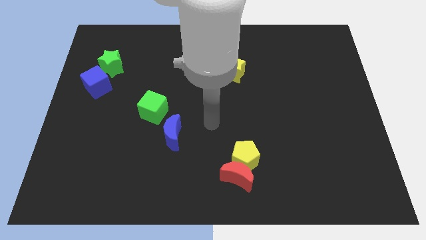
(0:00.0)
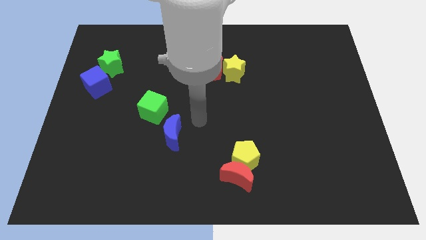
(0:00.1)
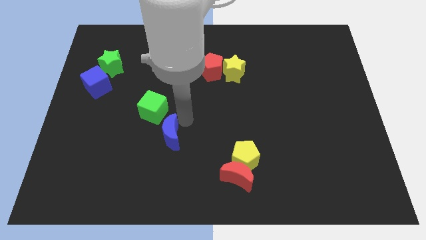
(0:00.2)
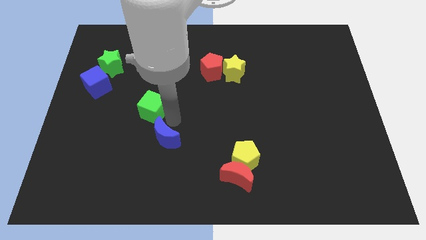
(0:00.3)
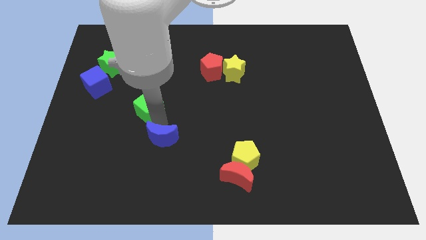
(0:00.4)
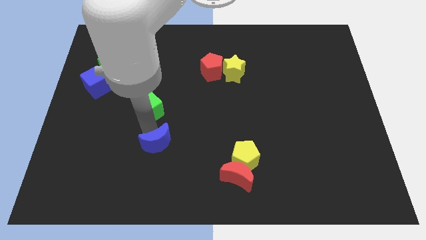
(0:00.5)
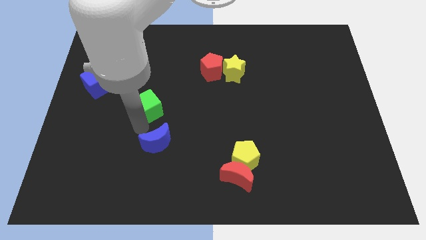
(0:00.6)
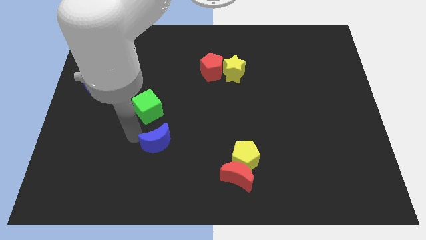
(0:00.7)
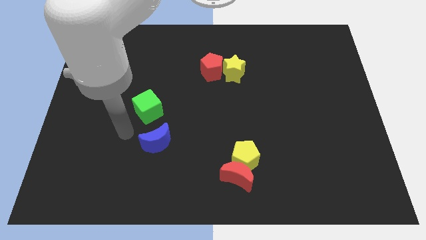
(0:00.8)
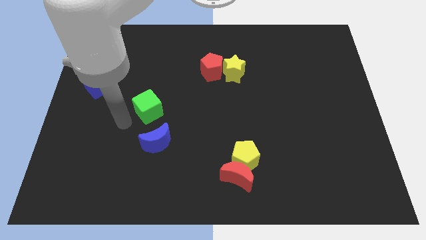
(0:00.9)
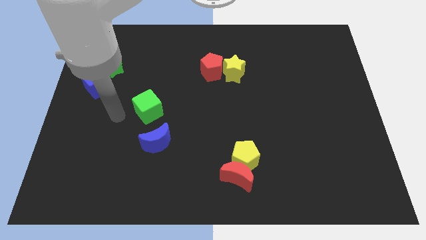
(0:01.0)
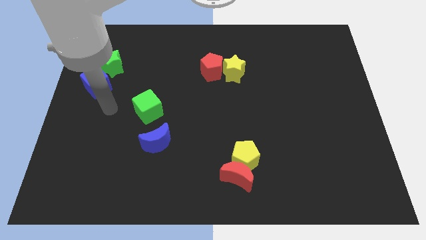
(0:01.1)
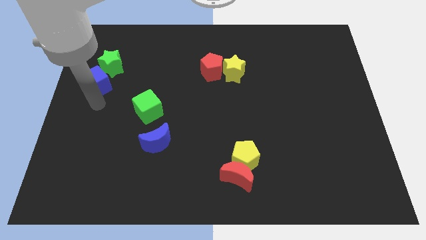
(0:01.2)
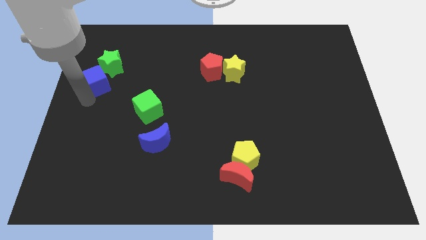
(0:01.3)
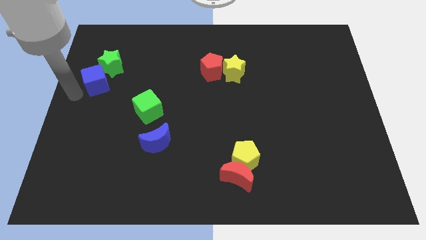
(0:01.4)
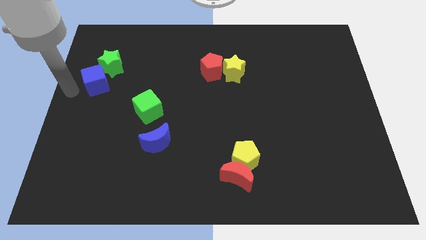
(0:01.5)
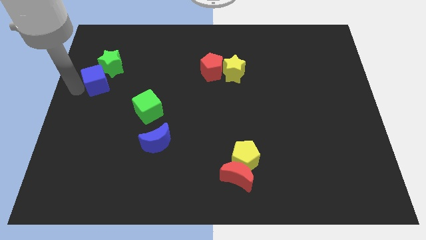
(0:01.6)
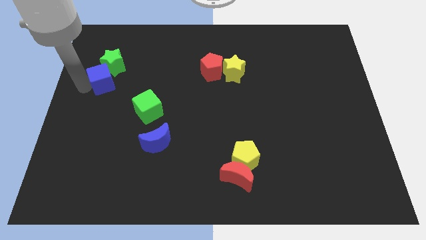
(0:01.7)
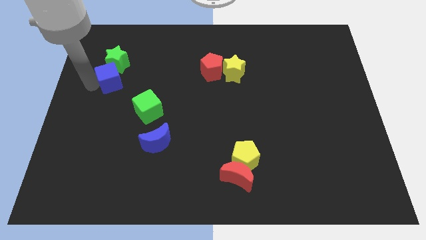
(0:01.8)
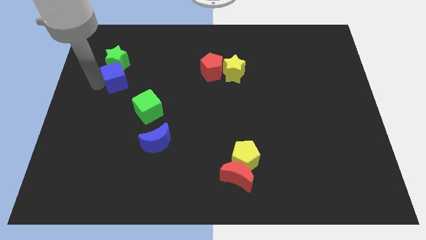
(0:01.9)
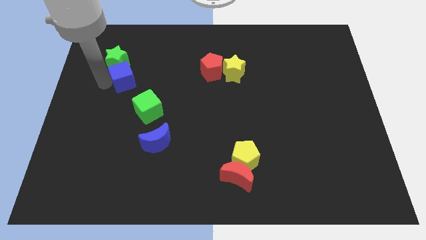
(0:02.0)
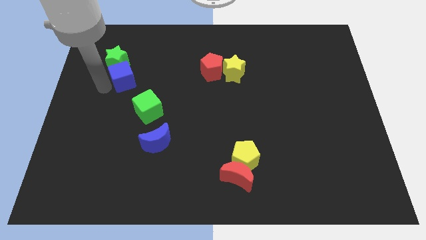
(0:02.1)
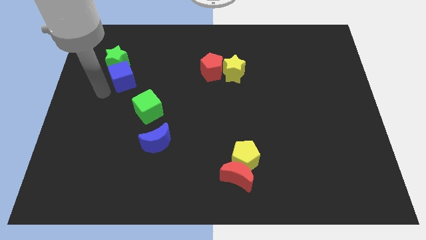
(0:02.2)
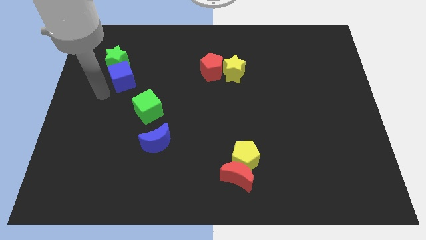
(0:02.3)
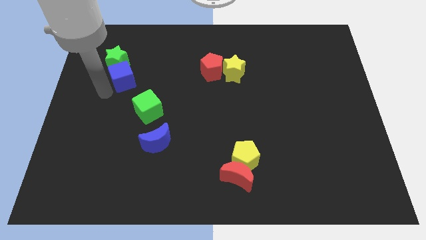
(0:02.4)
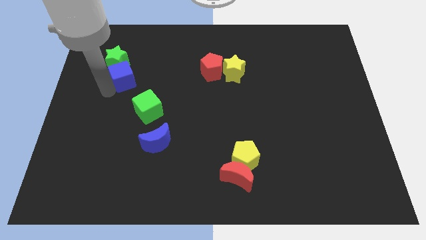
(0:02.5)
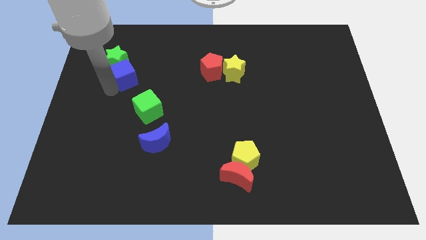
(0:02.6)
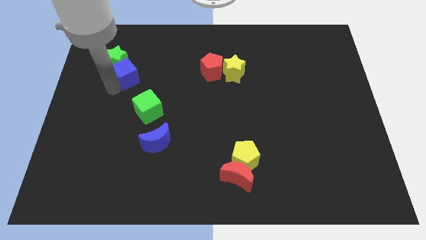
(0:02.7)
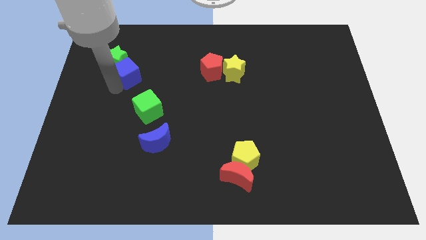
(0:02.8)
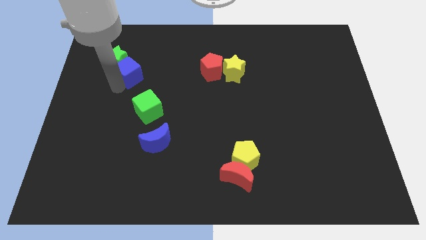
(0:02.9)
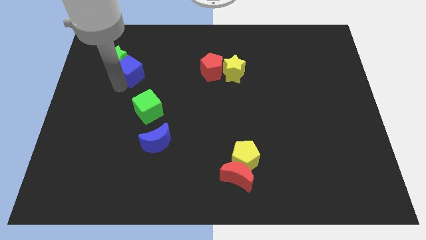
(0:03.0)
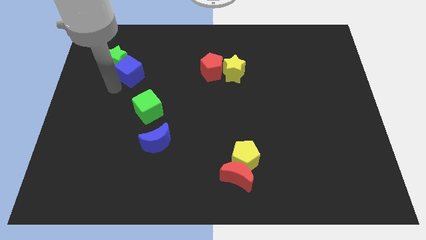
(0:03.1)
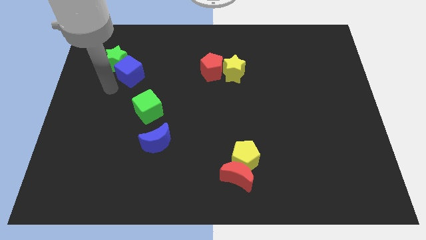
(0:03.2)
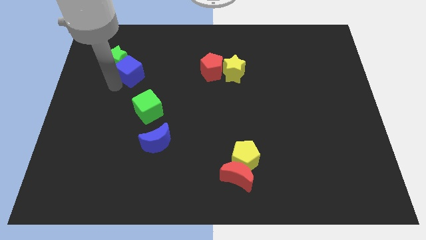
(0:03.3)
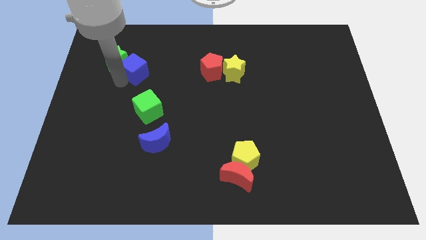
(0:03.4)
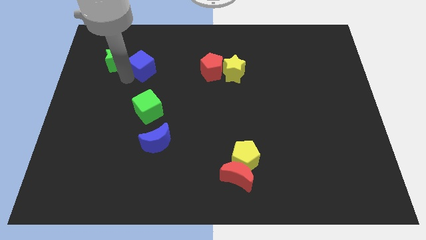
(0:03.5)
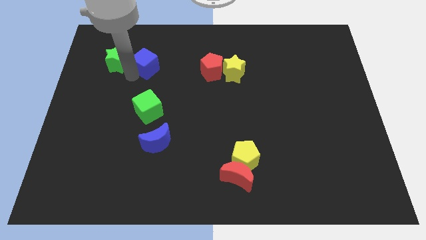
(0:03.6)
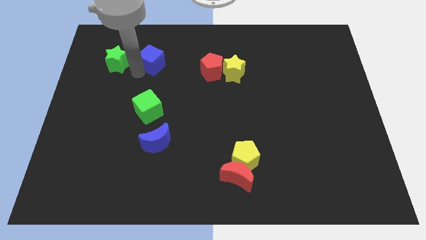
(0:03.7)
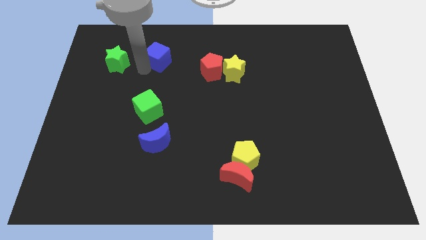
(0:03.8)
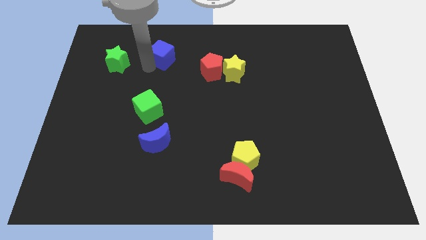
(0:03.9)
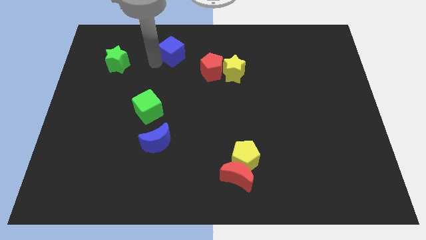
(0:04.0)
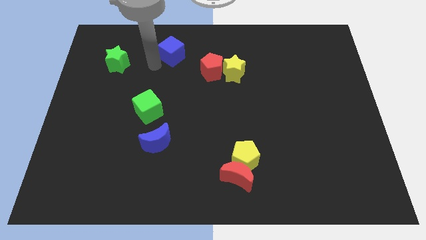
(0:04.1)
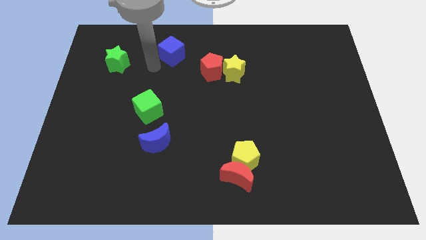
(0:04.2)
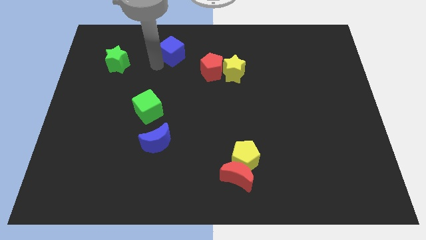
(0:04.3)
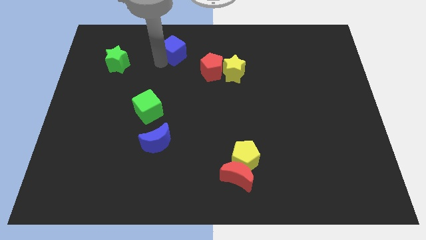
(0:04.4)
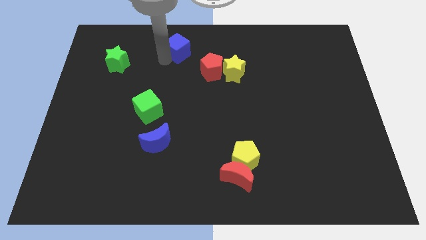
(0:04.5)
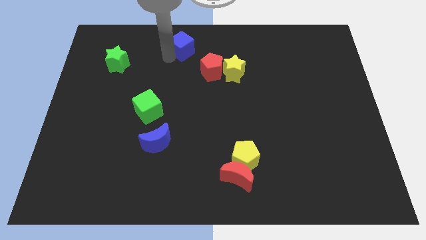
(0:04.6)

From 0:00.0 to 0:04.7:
move the blue cube to the towards your base

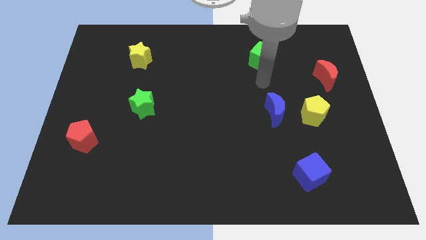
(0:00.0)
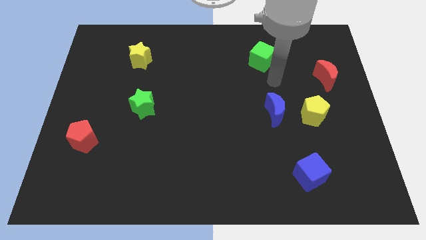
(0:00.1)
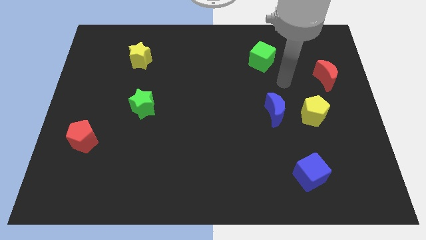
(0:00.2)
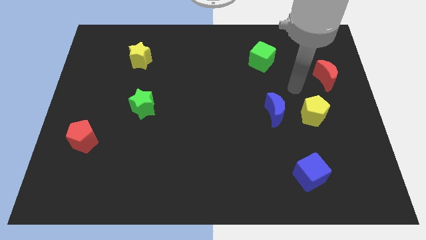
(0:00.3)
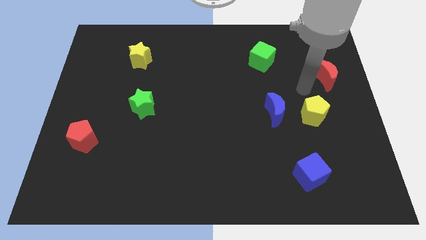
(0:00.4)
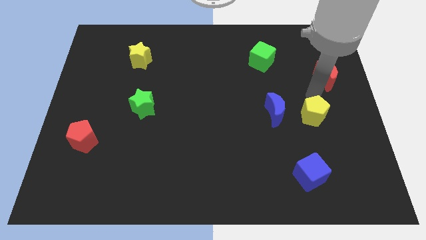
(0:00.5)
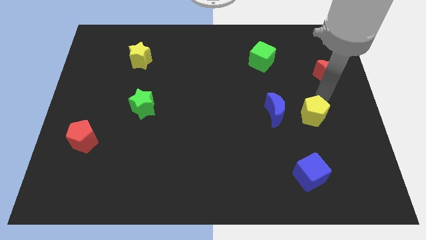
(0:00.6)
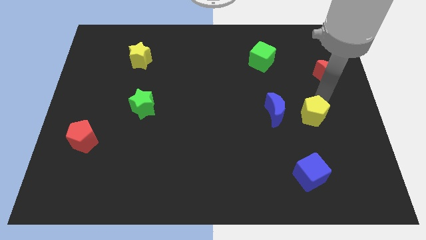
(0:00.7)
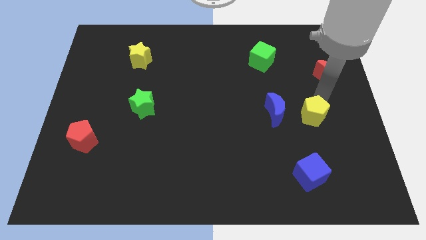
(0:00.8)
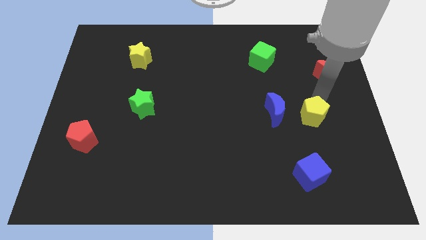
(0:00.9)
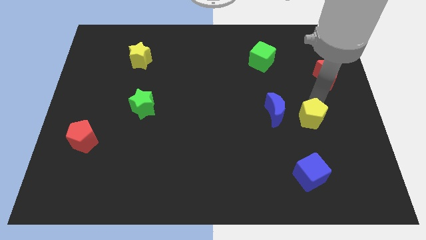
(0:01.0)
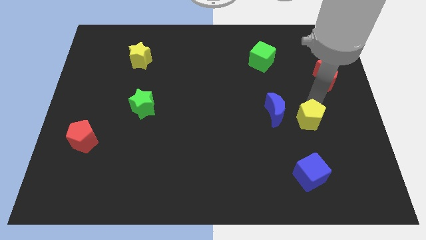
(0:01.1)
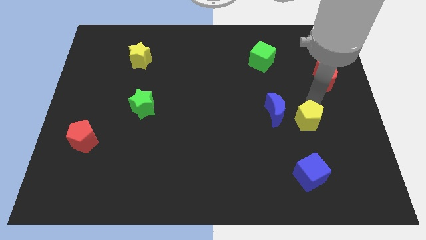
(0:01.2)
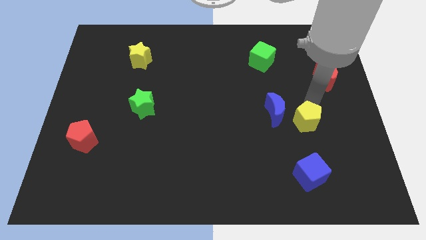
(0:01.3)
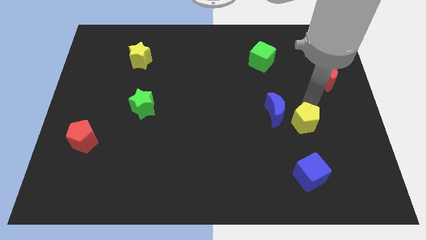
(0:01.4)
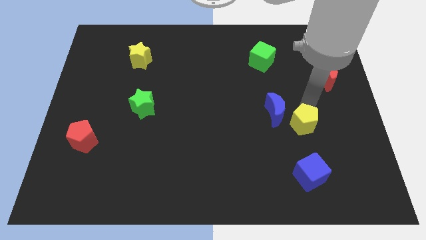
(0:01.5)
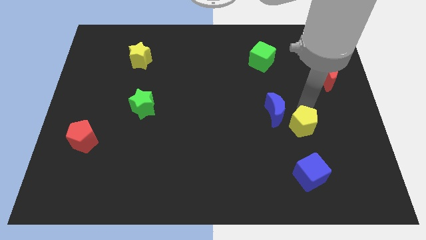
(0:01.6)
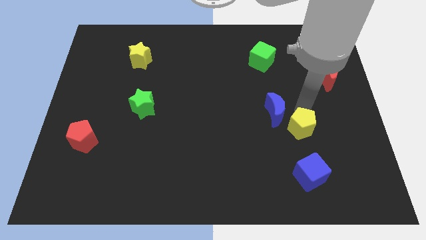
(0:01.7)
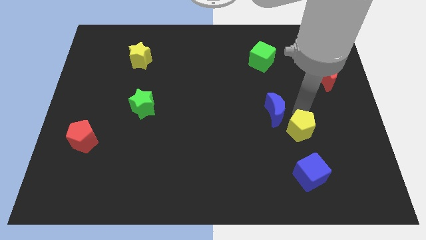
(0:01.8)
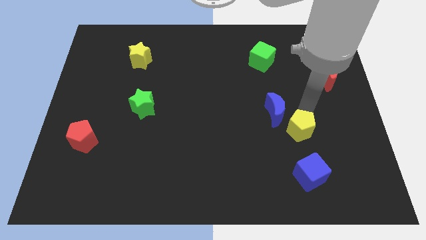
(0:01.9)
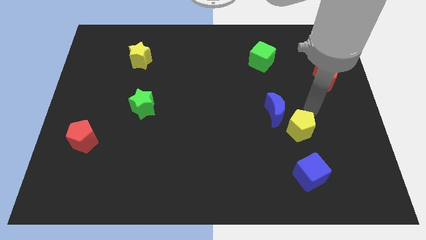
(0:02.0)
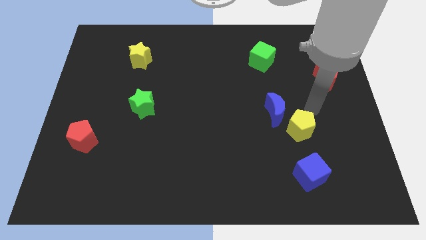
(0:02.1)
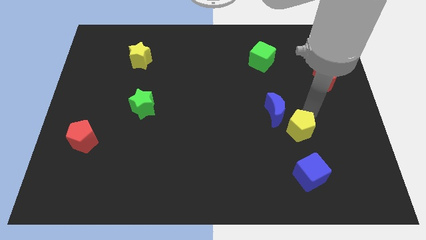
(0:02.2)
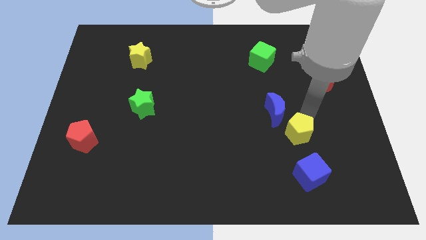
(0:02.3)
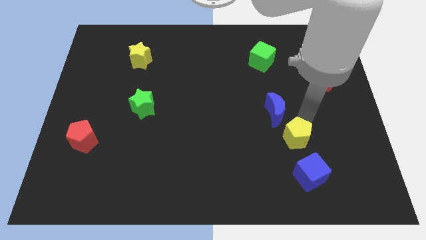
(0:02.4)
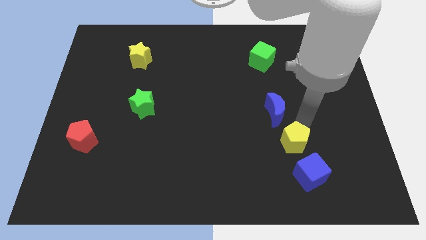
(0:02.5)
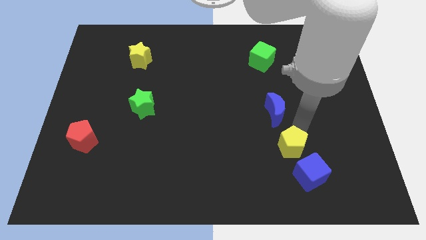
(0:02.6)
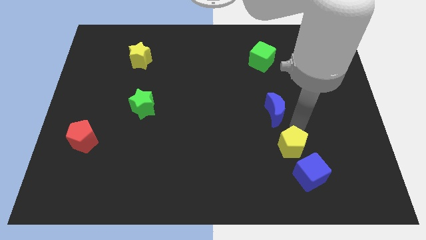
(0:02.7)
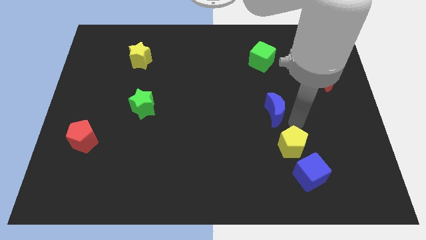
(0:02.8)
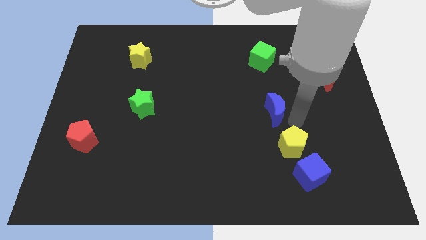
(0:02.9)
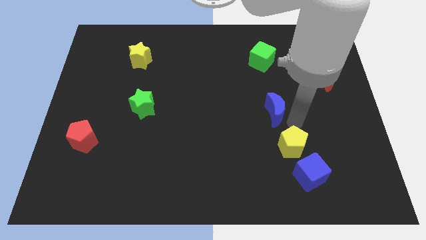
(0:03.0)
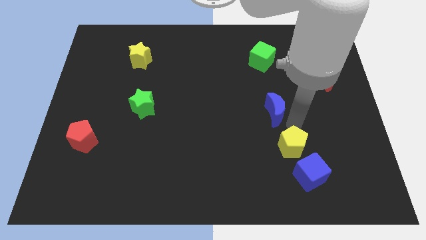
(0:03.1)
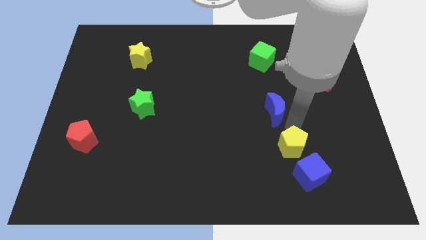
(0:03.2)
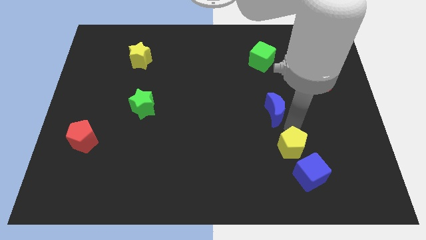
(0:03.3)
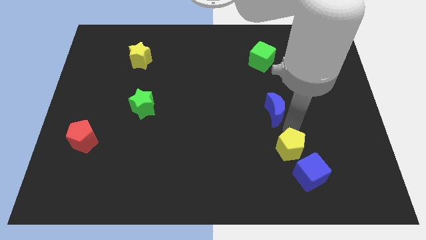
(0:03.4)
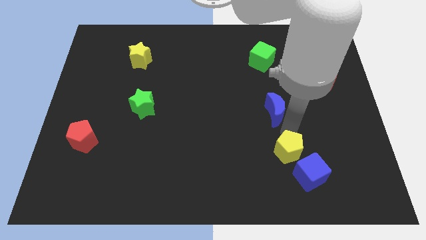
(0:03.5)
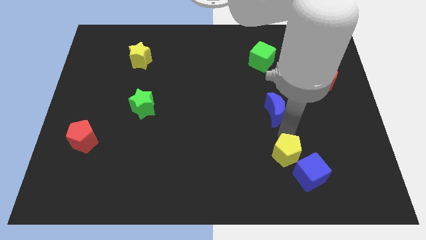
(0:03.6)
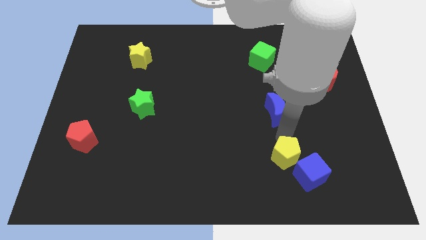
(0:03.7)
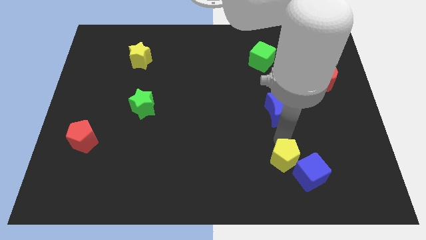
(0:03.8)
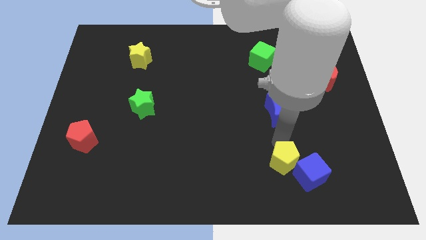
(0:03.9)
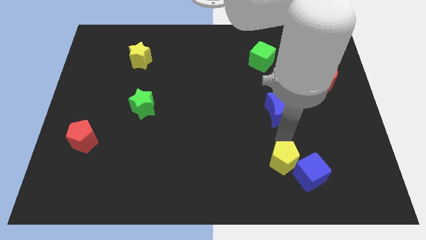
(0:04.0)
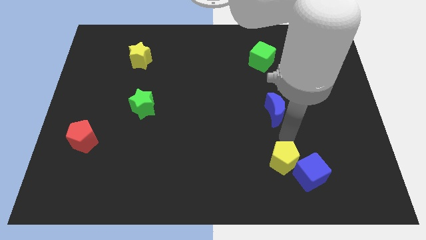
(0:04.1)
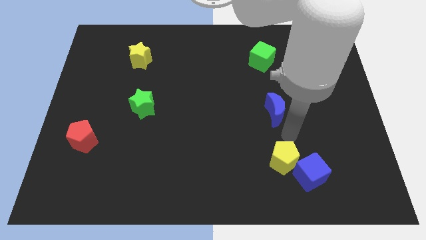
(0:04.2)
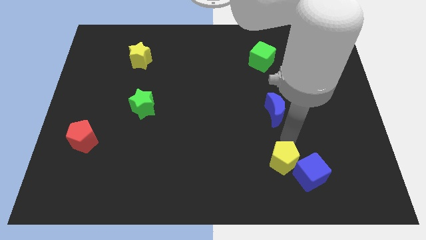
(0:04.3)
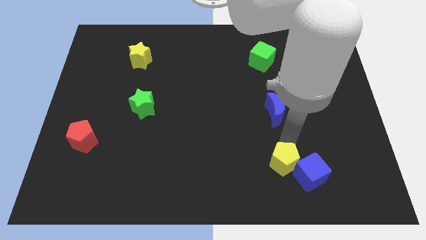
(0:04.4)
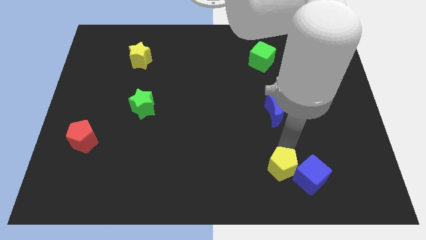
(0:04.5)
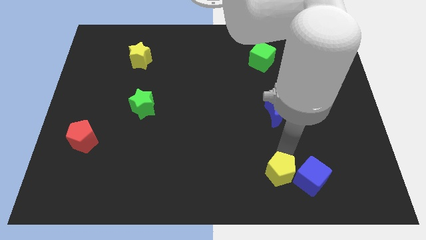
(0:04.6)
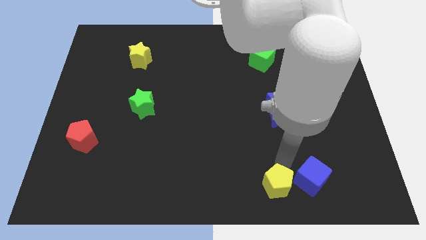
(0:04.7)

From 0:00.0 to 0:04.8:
move the yellow pentagon to the bottom
